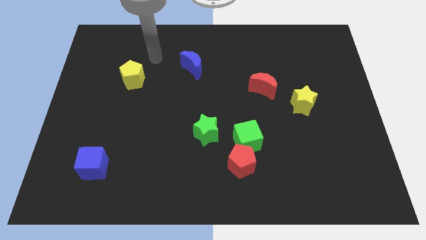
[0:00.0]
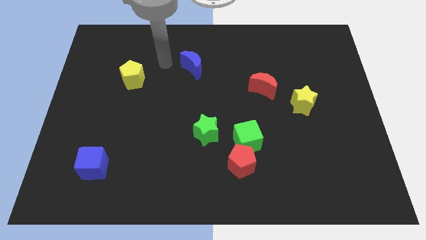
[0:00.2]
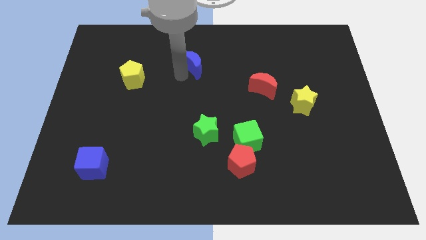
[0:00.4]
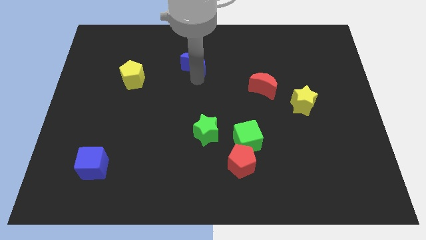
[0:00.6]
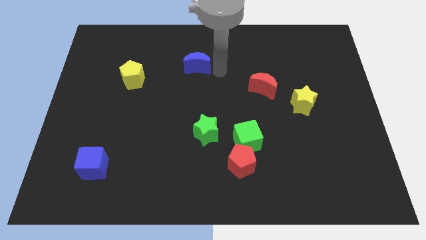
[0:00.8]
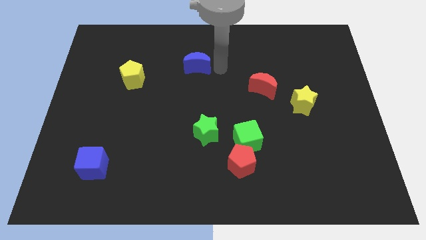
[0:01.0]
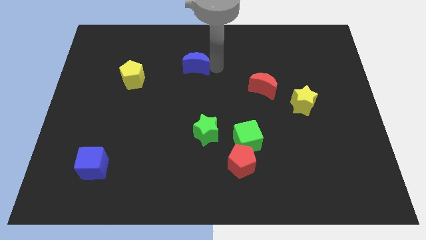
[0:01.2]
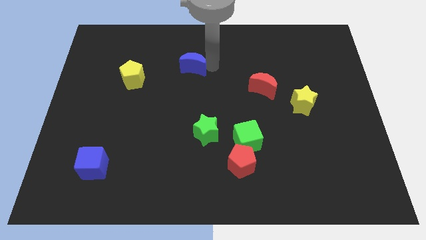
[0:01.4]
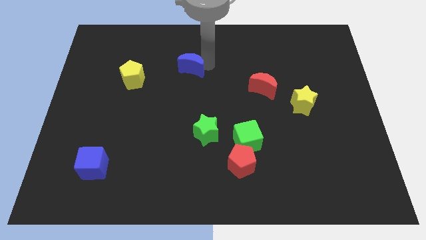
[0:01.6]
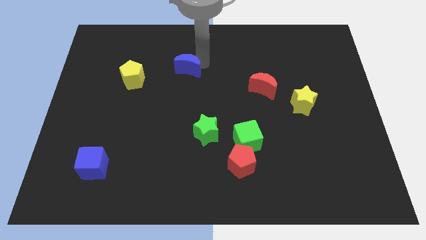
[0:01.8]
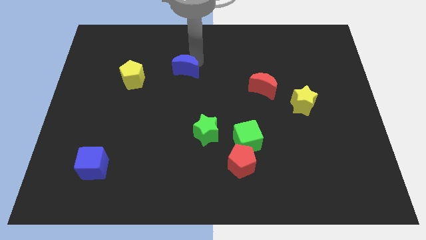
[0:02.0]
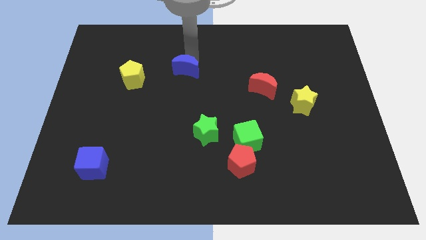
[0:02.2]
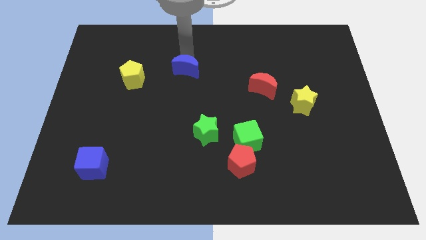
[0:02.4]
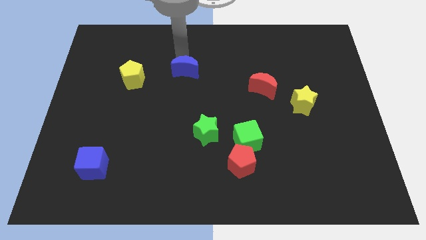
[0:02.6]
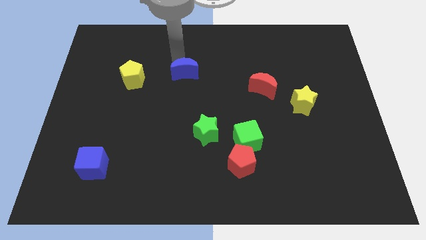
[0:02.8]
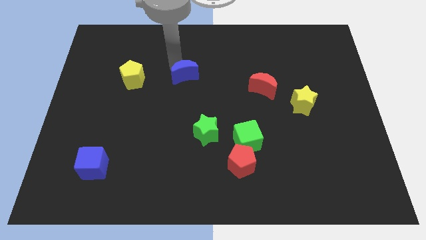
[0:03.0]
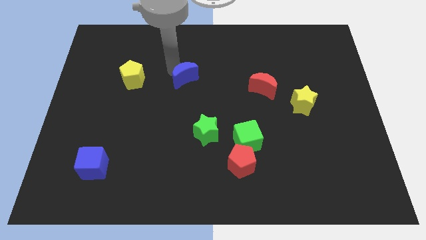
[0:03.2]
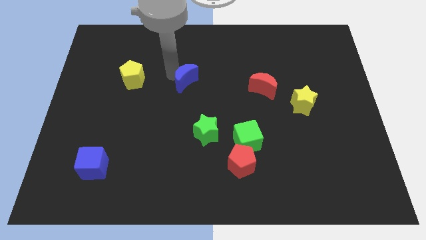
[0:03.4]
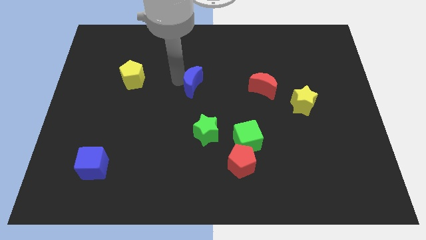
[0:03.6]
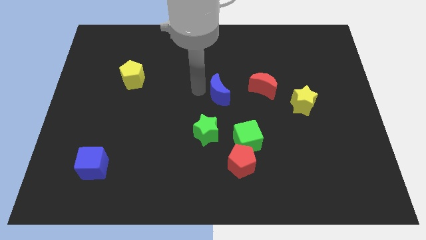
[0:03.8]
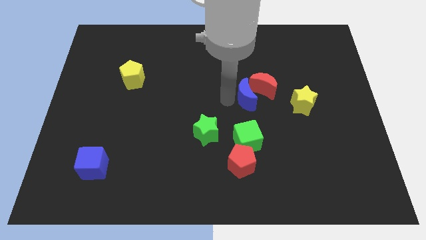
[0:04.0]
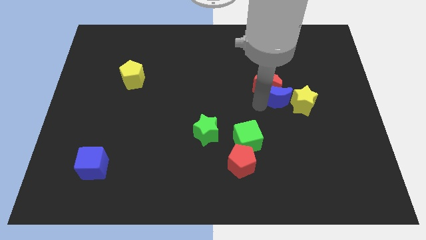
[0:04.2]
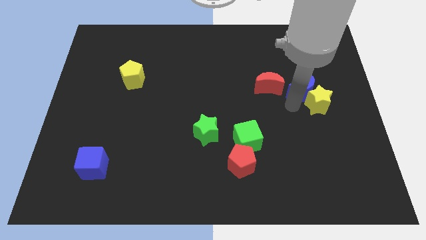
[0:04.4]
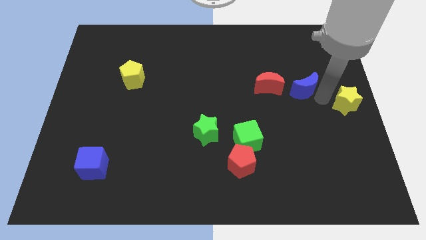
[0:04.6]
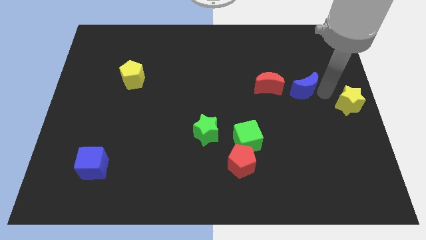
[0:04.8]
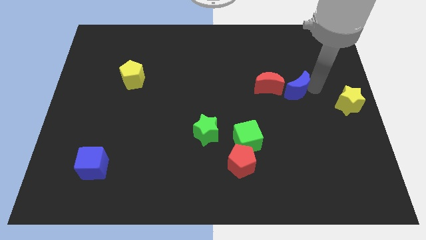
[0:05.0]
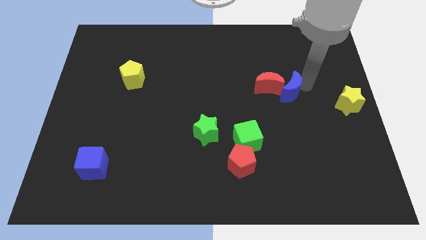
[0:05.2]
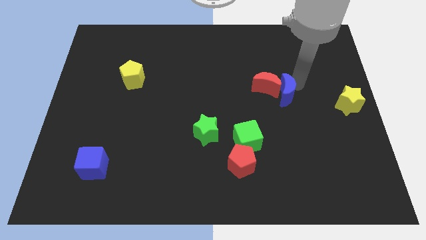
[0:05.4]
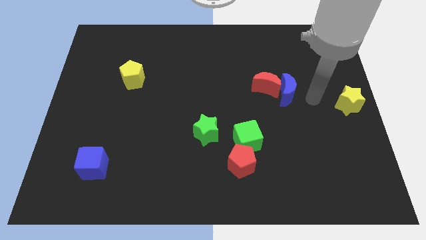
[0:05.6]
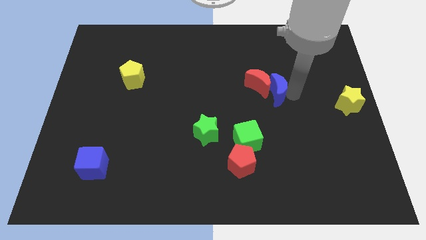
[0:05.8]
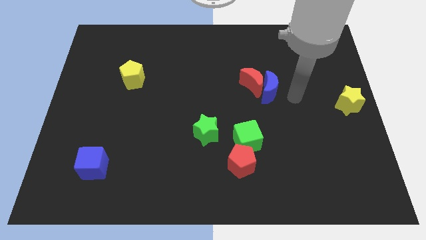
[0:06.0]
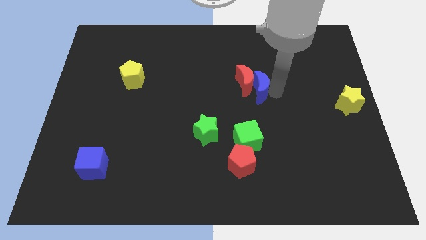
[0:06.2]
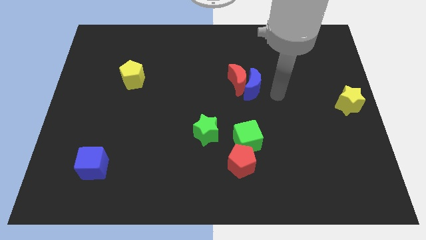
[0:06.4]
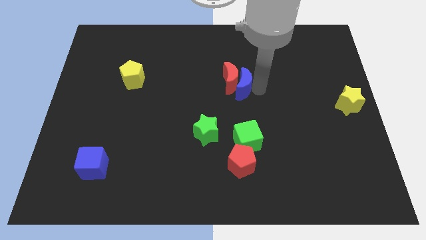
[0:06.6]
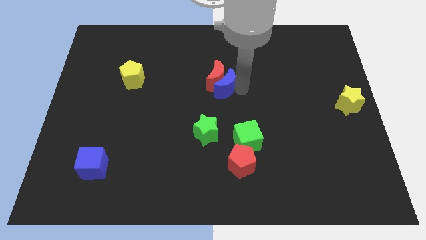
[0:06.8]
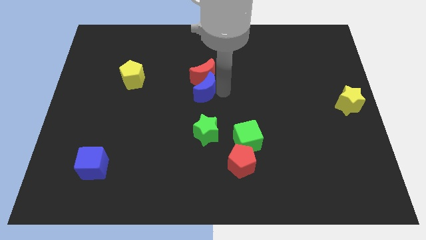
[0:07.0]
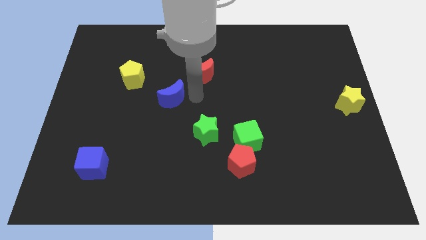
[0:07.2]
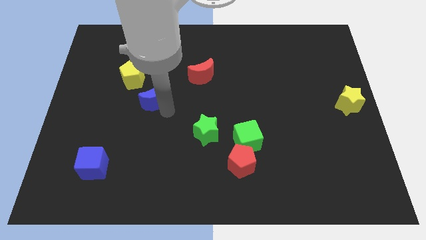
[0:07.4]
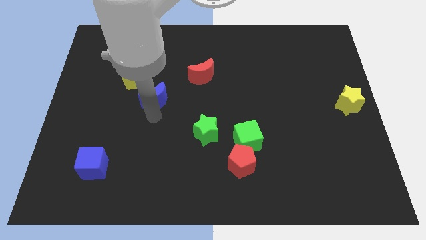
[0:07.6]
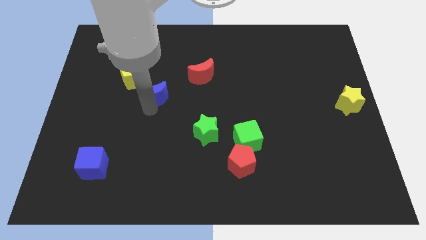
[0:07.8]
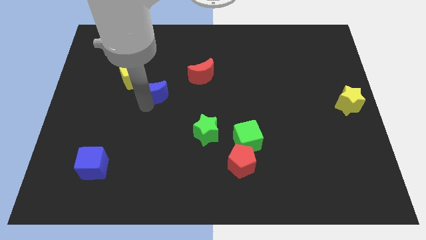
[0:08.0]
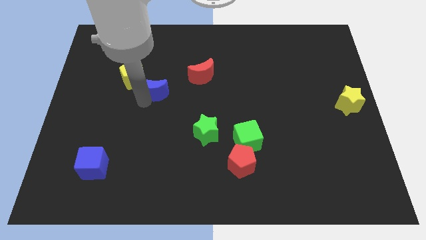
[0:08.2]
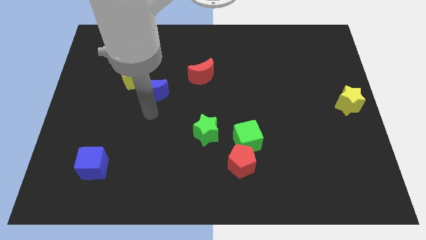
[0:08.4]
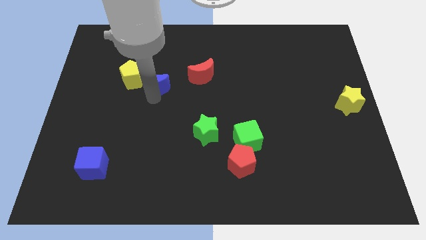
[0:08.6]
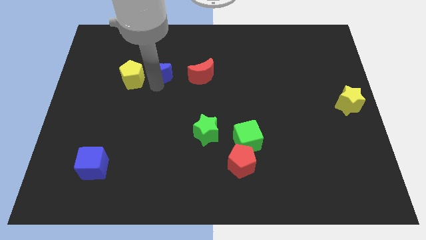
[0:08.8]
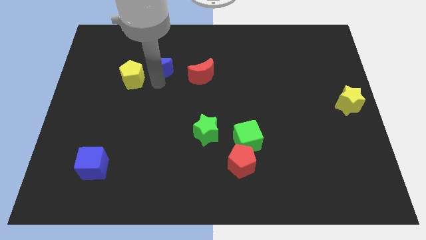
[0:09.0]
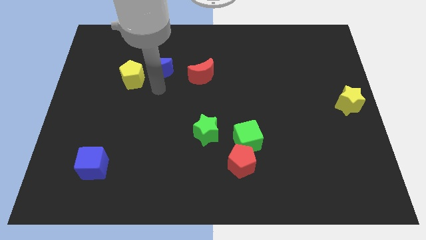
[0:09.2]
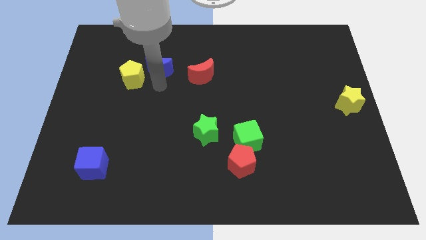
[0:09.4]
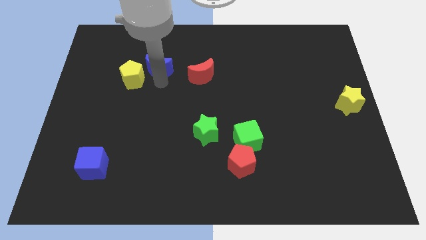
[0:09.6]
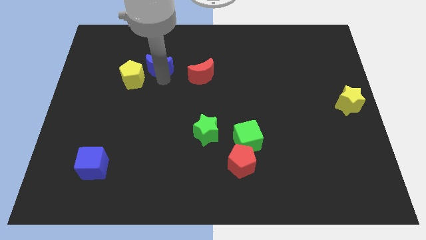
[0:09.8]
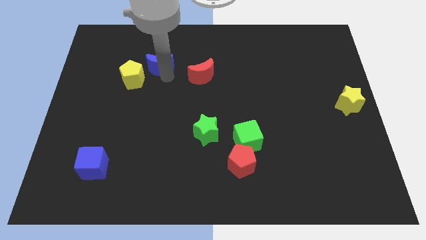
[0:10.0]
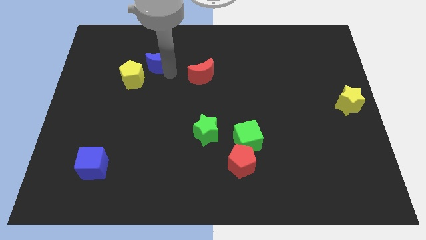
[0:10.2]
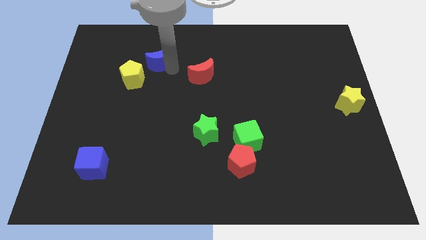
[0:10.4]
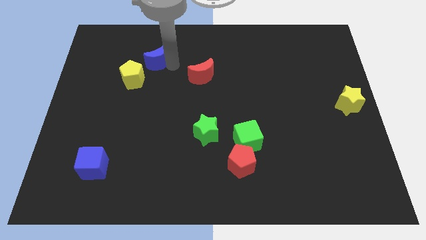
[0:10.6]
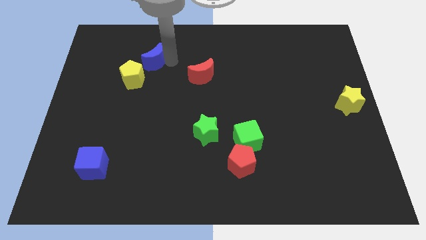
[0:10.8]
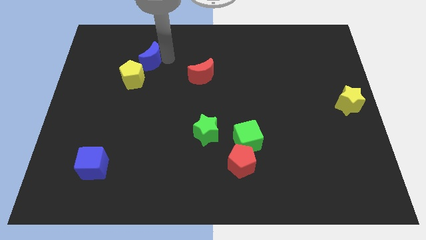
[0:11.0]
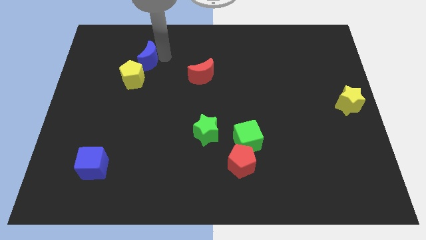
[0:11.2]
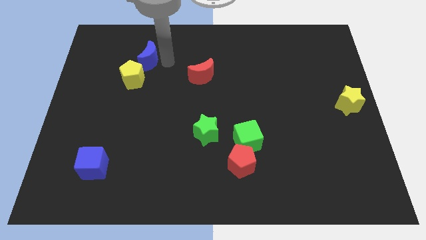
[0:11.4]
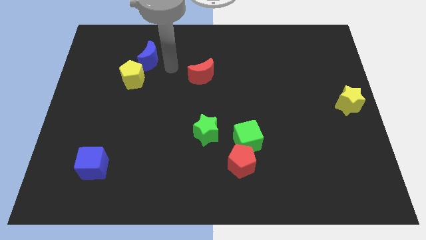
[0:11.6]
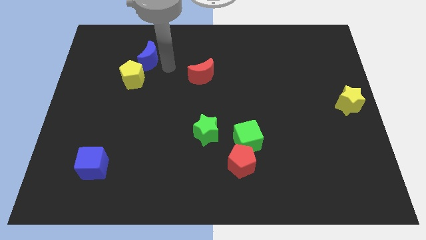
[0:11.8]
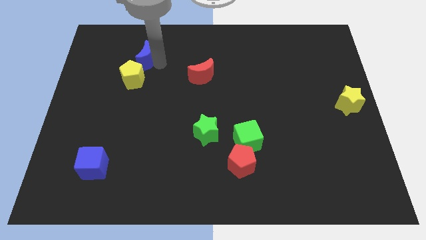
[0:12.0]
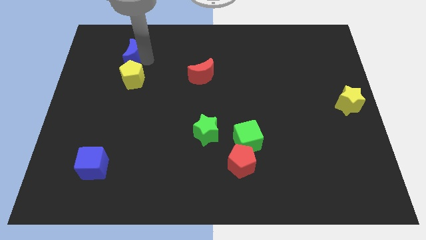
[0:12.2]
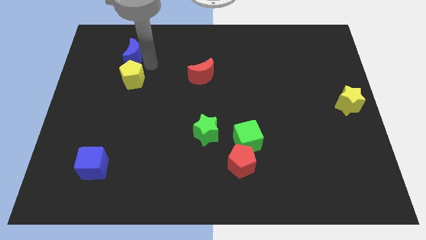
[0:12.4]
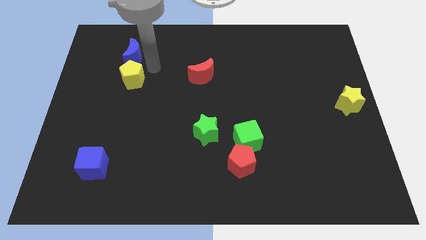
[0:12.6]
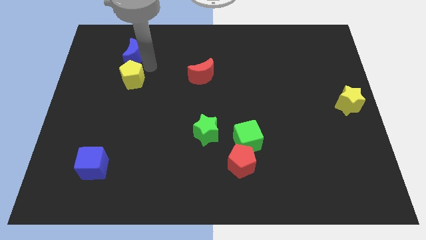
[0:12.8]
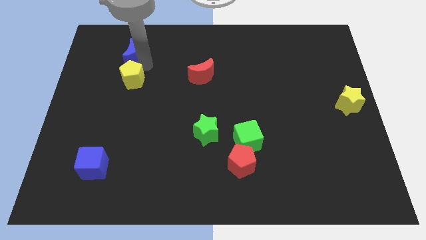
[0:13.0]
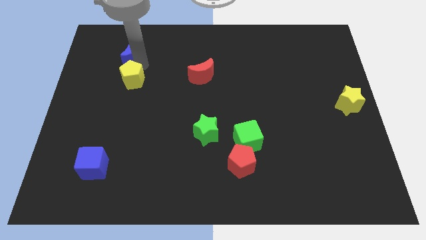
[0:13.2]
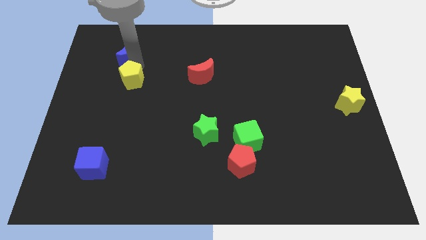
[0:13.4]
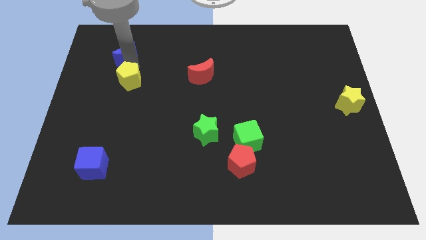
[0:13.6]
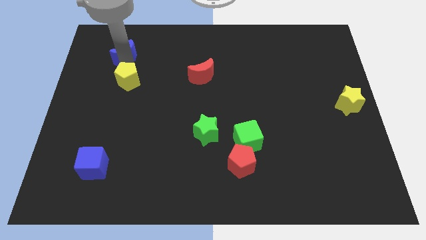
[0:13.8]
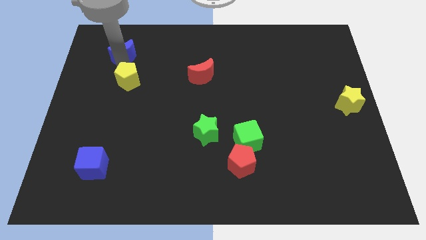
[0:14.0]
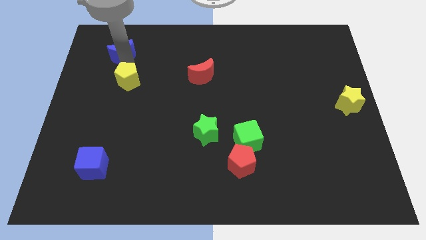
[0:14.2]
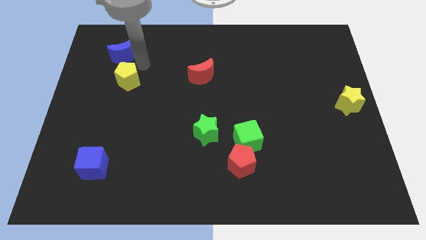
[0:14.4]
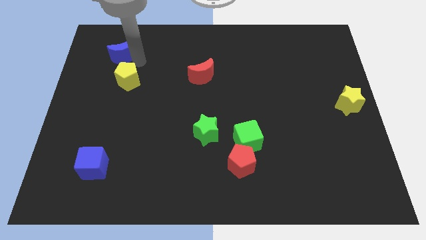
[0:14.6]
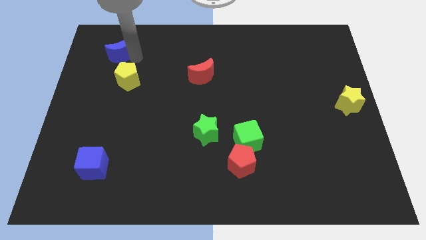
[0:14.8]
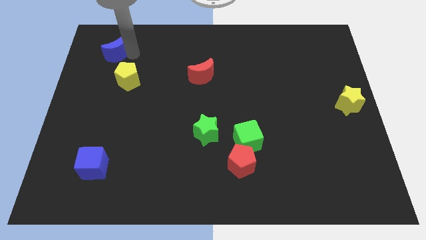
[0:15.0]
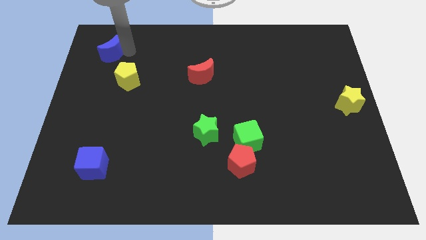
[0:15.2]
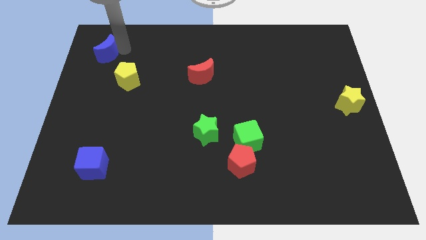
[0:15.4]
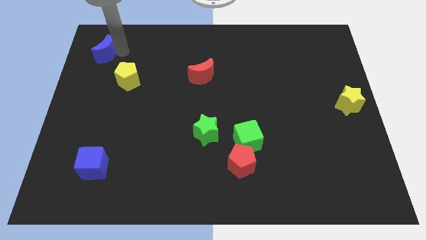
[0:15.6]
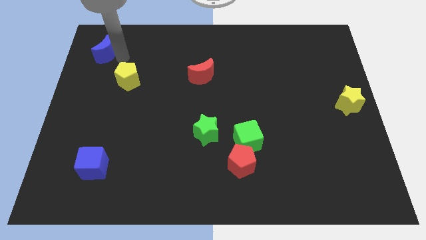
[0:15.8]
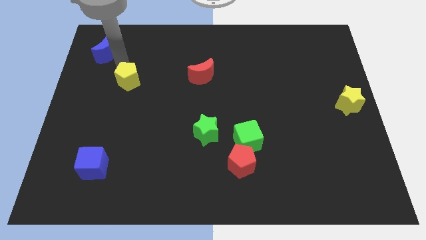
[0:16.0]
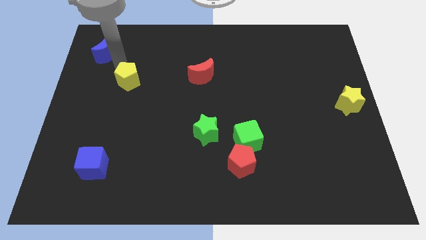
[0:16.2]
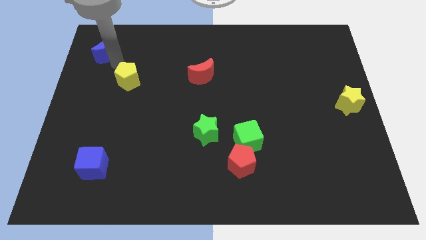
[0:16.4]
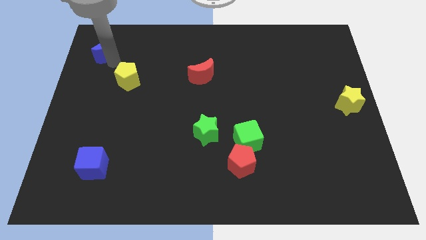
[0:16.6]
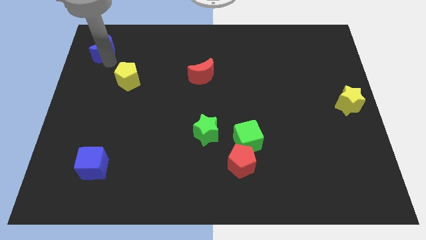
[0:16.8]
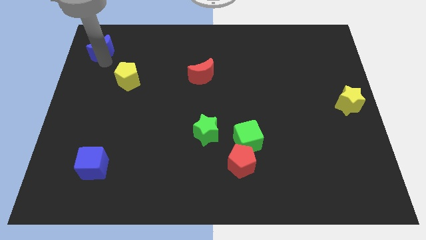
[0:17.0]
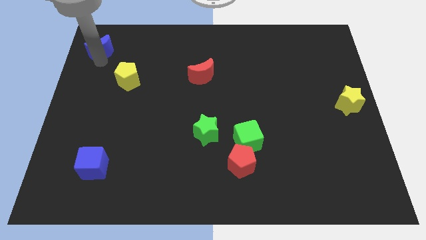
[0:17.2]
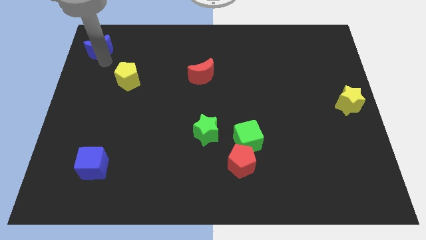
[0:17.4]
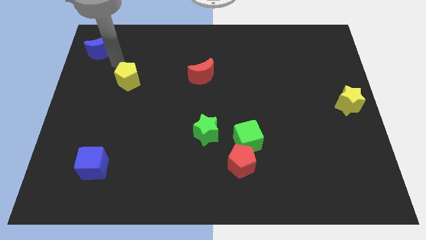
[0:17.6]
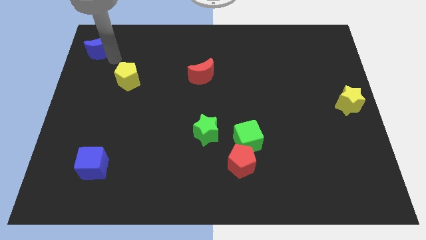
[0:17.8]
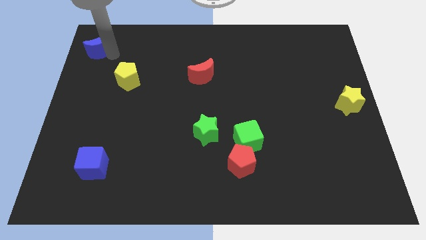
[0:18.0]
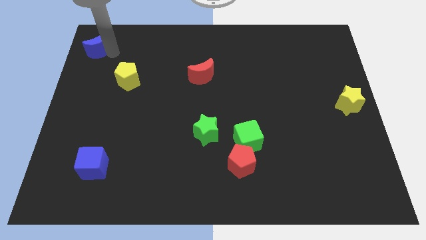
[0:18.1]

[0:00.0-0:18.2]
slide the blue moon to the upper left corner
